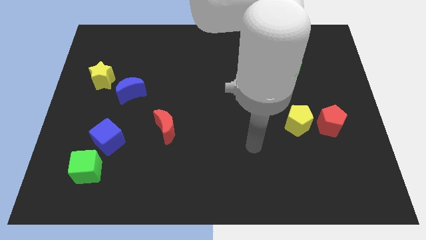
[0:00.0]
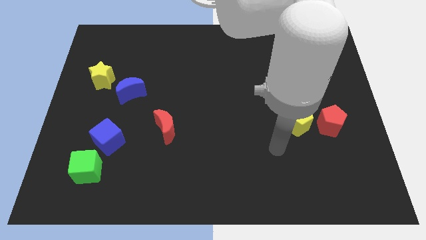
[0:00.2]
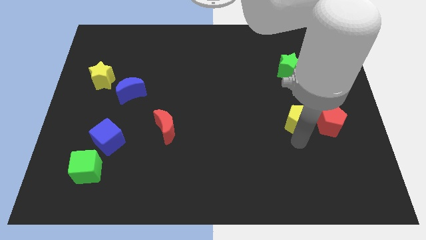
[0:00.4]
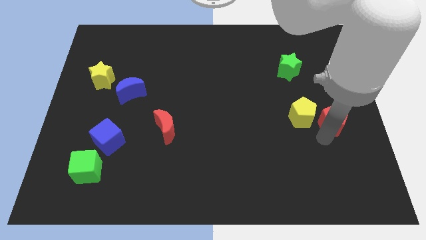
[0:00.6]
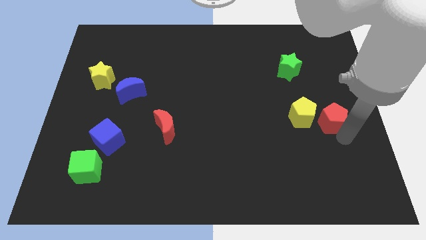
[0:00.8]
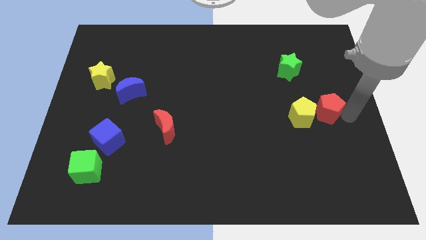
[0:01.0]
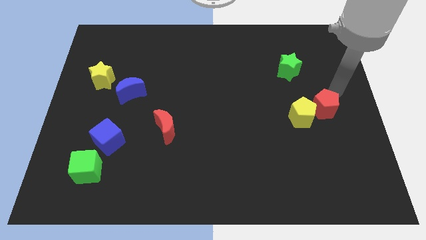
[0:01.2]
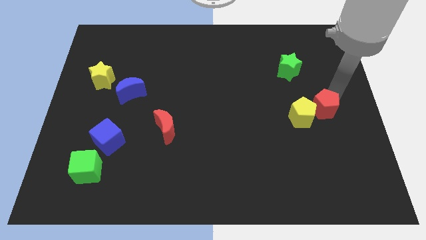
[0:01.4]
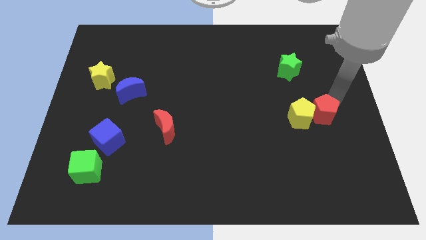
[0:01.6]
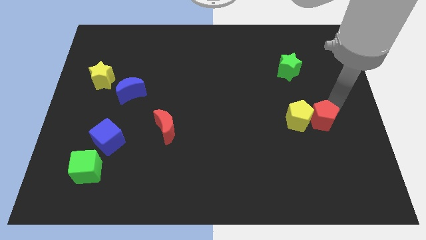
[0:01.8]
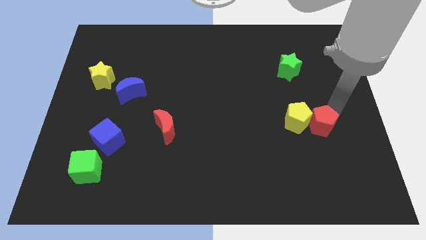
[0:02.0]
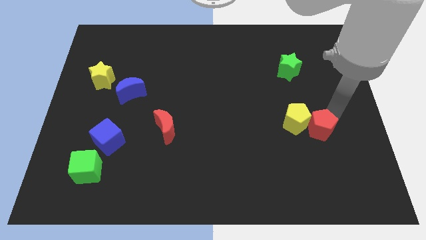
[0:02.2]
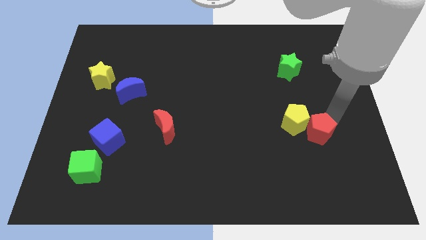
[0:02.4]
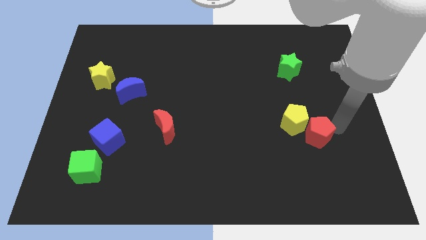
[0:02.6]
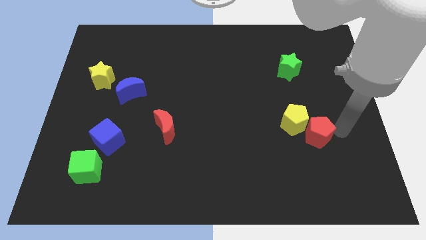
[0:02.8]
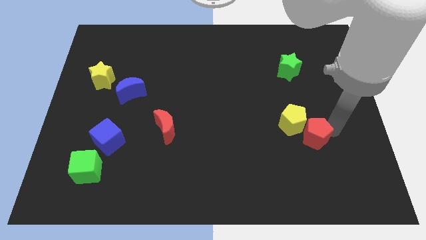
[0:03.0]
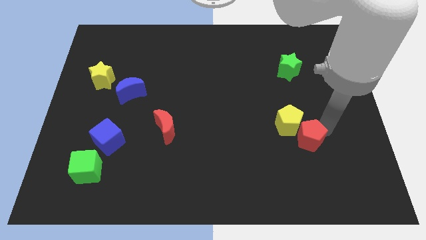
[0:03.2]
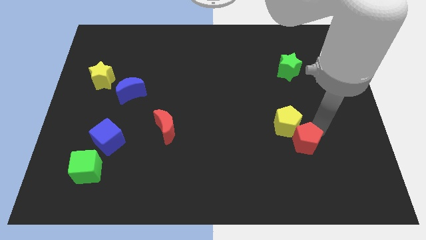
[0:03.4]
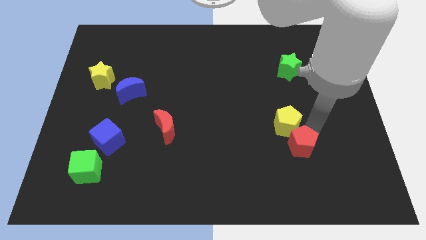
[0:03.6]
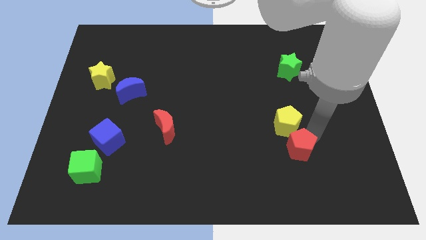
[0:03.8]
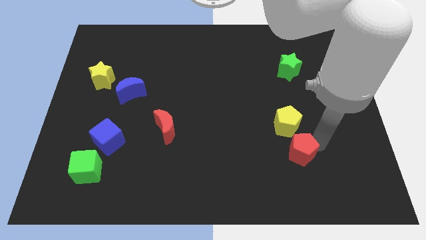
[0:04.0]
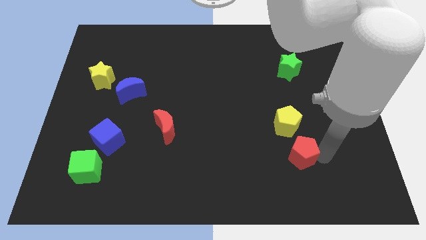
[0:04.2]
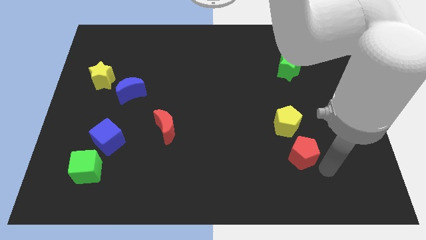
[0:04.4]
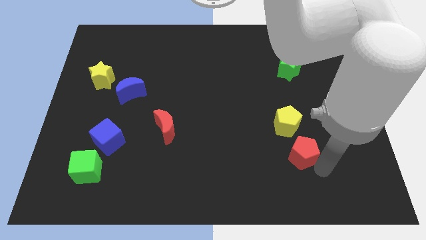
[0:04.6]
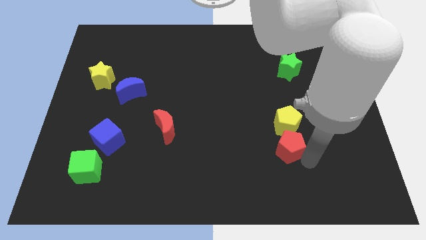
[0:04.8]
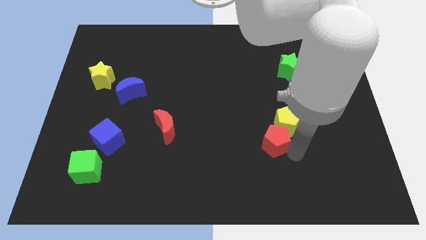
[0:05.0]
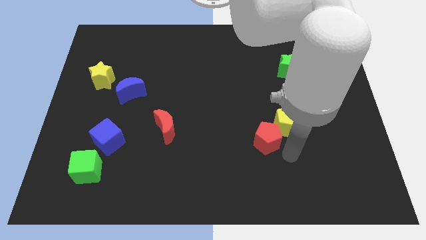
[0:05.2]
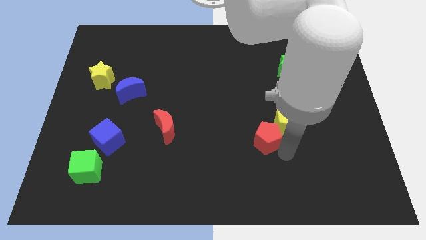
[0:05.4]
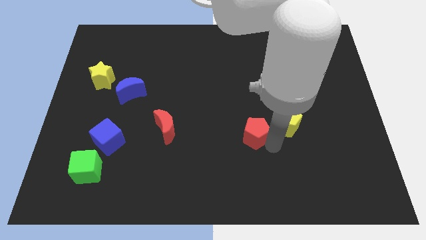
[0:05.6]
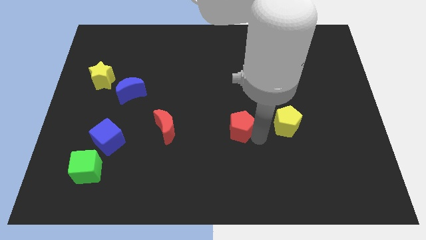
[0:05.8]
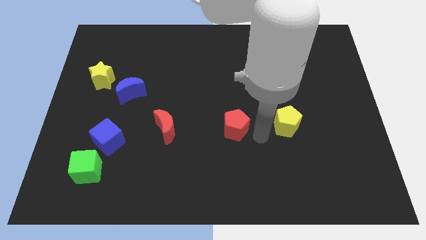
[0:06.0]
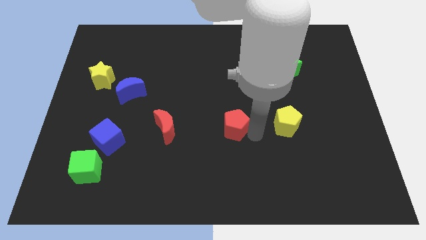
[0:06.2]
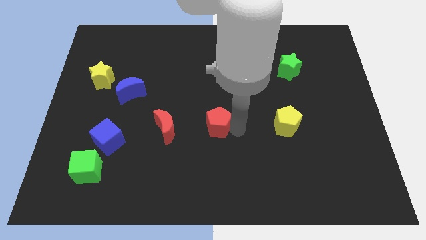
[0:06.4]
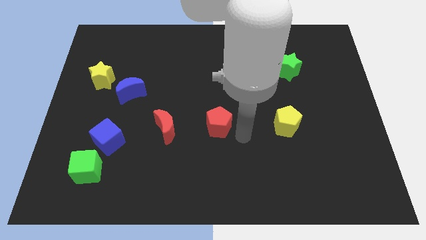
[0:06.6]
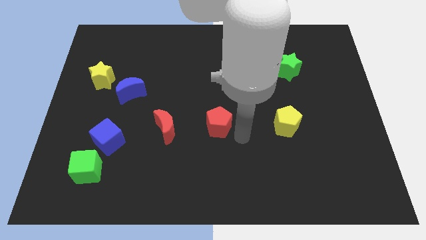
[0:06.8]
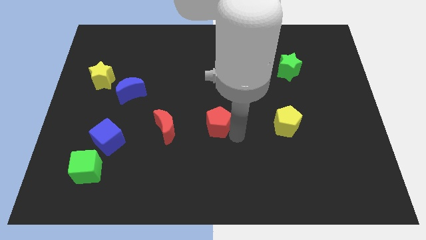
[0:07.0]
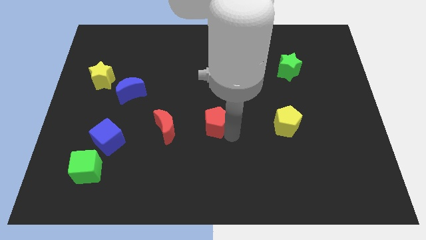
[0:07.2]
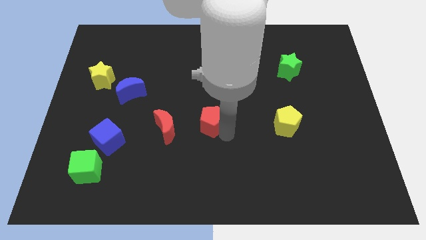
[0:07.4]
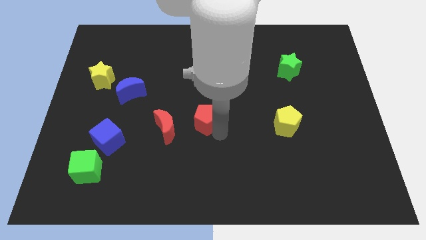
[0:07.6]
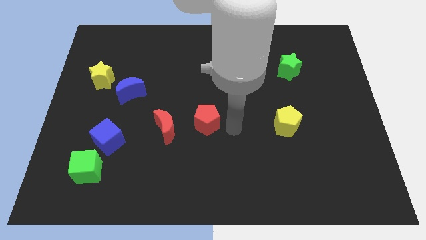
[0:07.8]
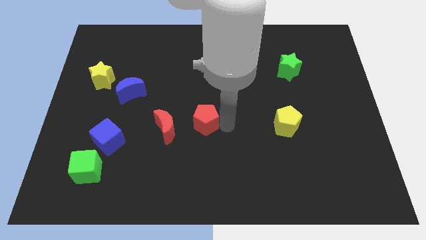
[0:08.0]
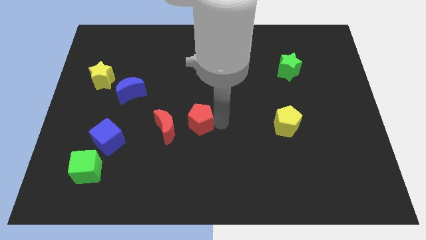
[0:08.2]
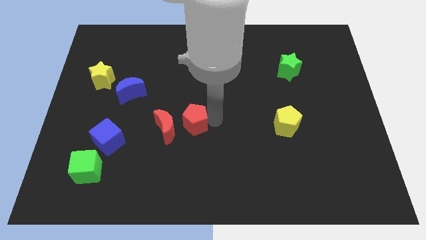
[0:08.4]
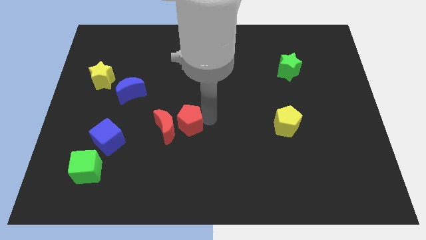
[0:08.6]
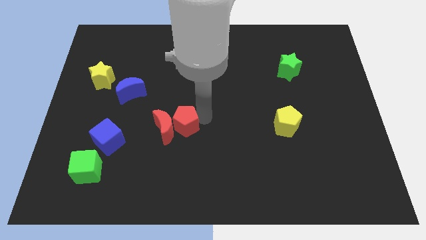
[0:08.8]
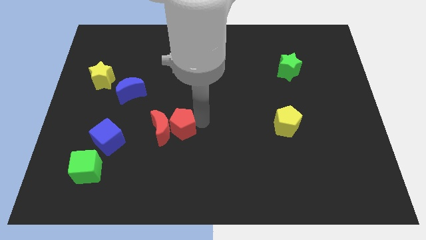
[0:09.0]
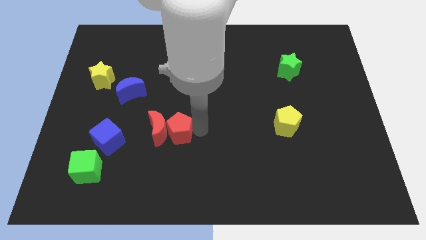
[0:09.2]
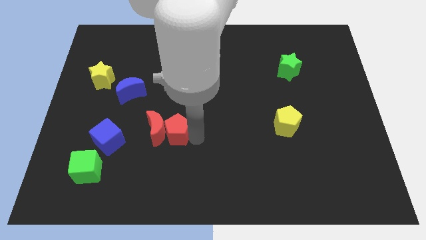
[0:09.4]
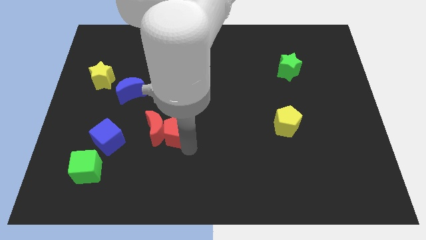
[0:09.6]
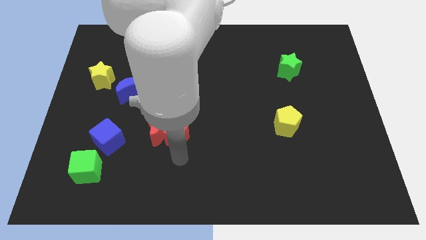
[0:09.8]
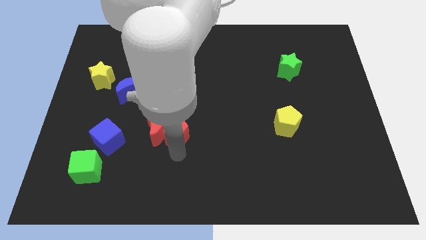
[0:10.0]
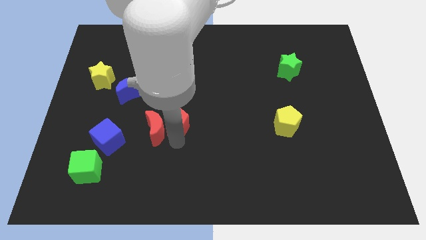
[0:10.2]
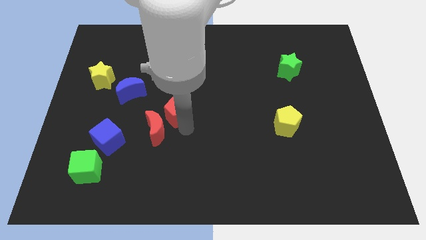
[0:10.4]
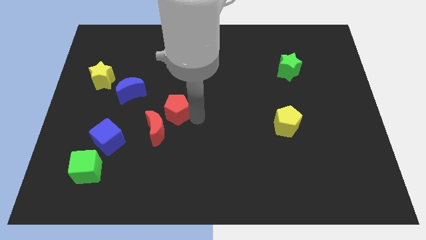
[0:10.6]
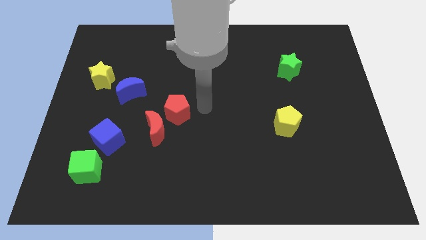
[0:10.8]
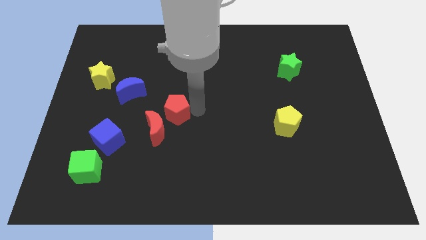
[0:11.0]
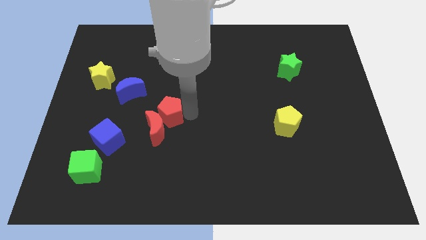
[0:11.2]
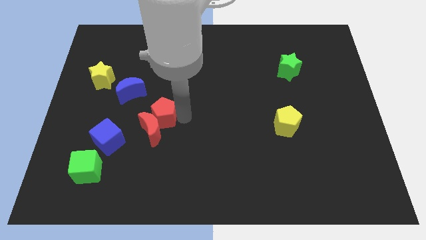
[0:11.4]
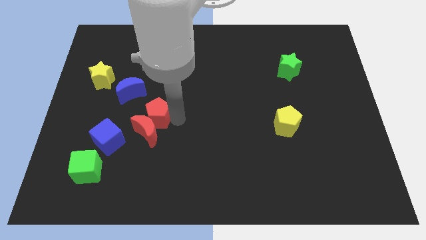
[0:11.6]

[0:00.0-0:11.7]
put the red pentagon diagonally up and to the right of the blue cube
